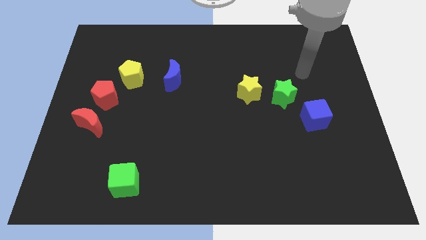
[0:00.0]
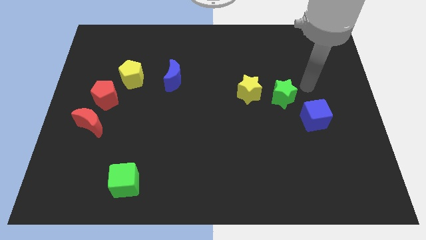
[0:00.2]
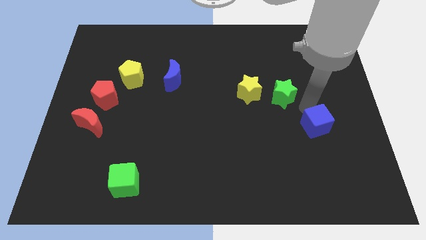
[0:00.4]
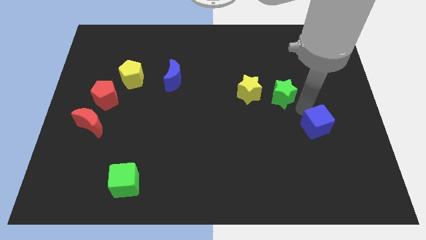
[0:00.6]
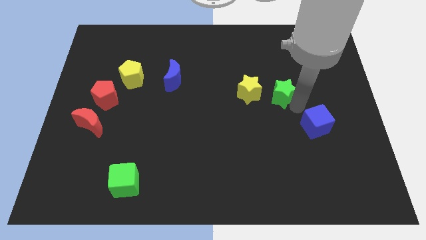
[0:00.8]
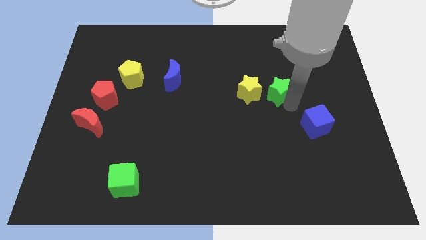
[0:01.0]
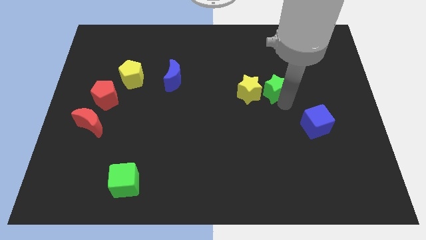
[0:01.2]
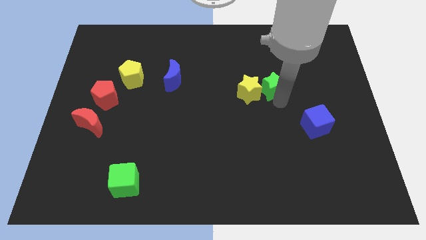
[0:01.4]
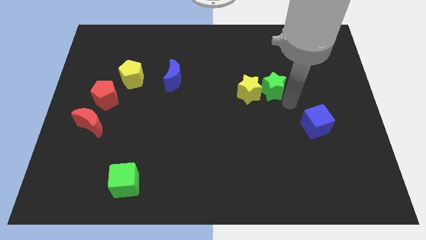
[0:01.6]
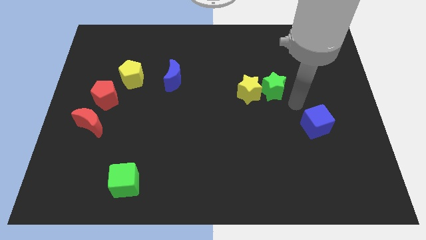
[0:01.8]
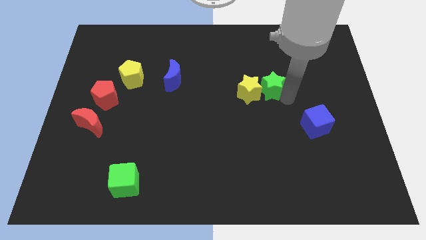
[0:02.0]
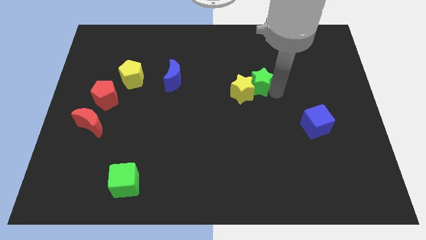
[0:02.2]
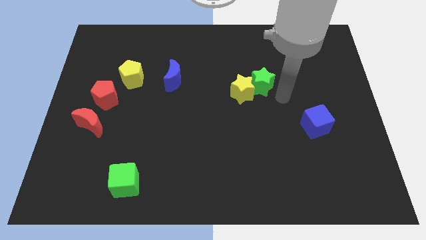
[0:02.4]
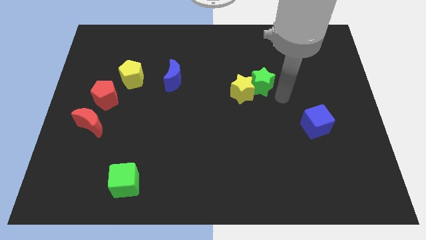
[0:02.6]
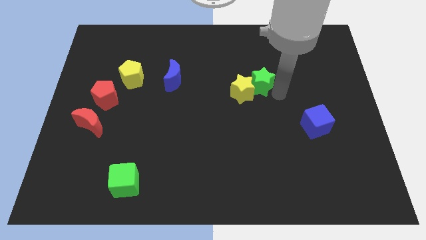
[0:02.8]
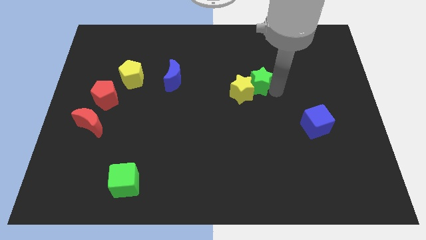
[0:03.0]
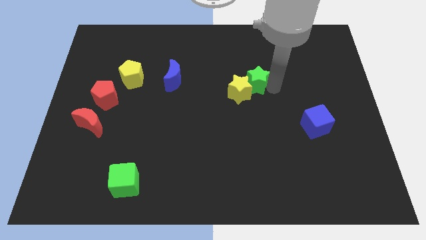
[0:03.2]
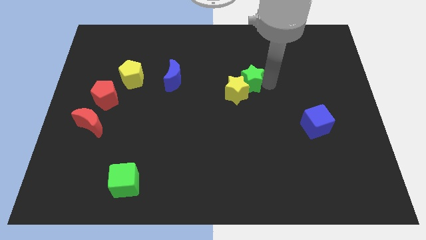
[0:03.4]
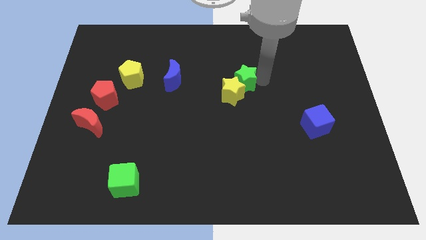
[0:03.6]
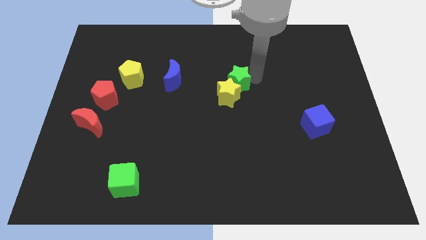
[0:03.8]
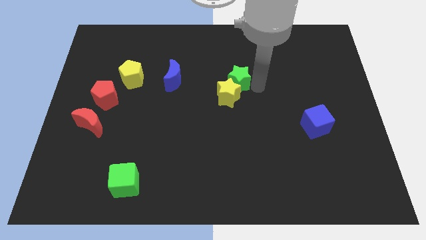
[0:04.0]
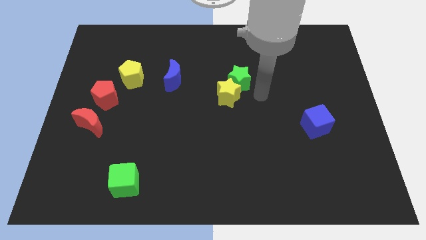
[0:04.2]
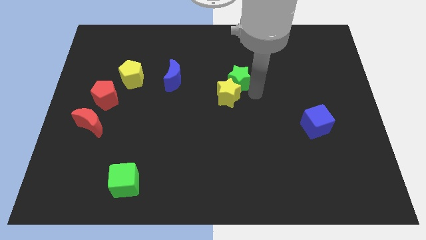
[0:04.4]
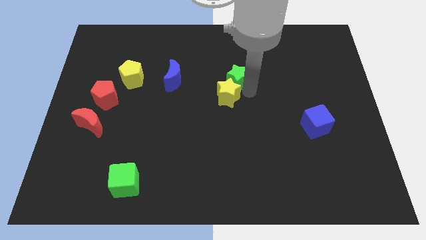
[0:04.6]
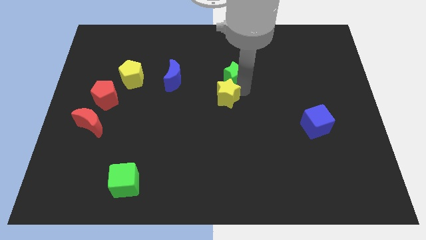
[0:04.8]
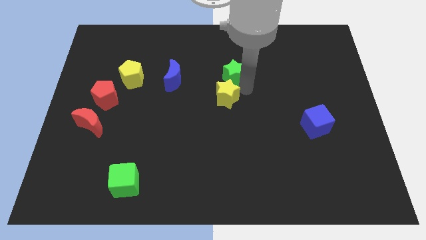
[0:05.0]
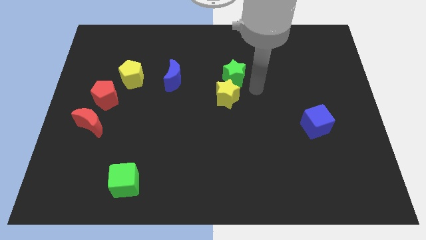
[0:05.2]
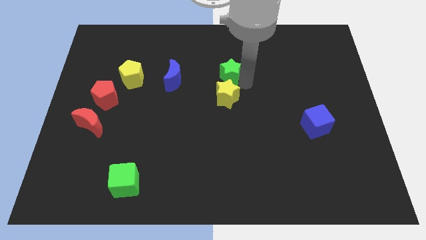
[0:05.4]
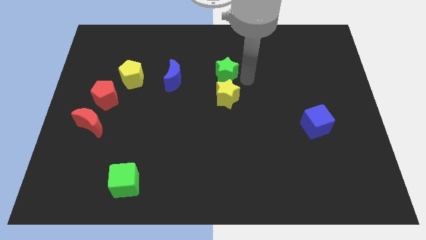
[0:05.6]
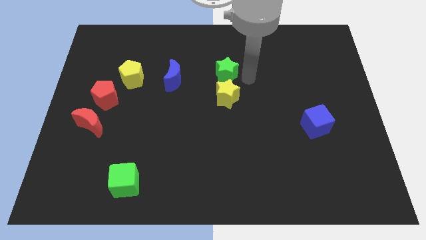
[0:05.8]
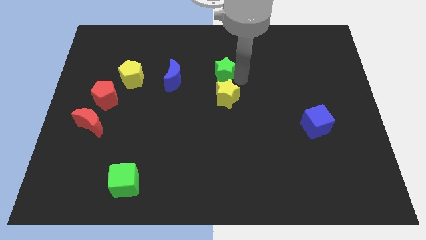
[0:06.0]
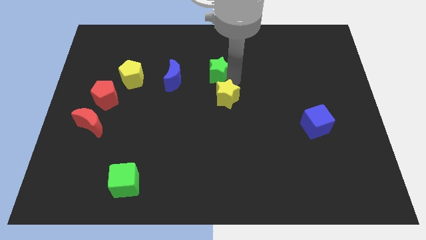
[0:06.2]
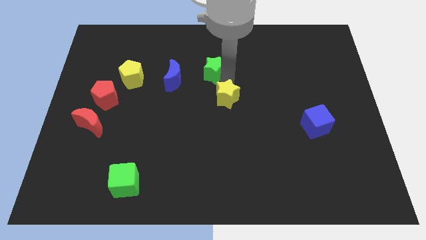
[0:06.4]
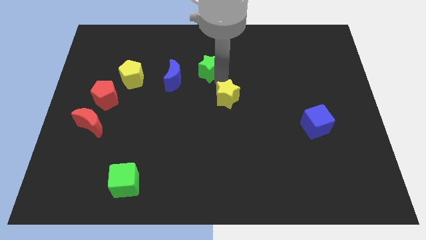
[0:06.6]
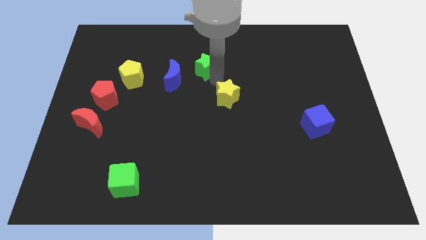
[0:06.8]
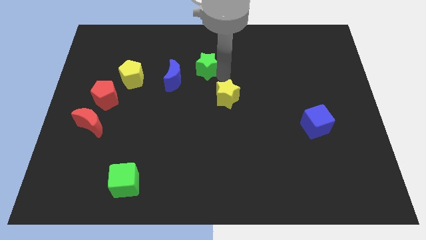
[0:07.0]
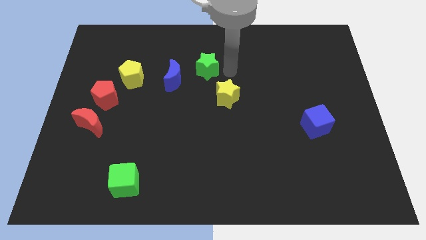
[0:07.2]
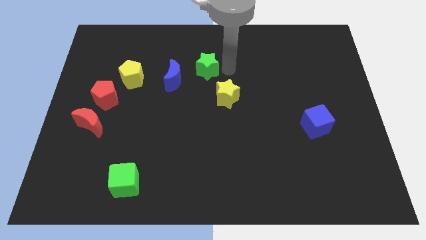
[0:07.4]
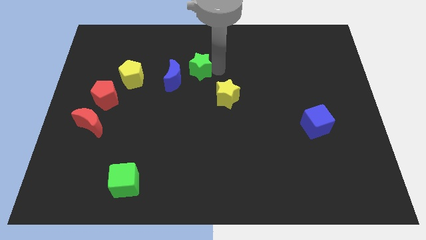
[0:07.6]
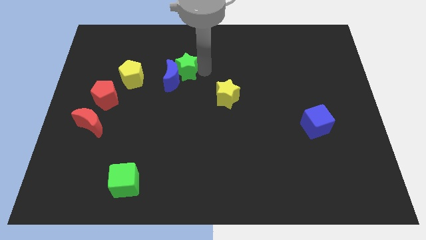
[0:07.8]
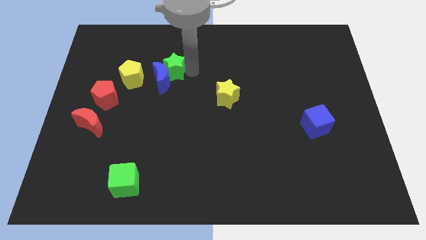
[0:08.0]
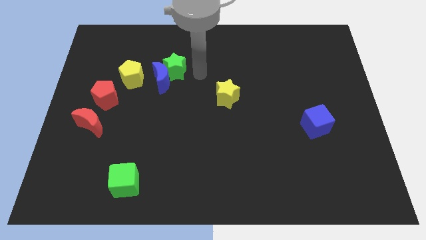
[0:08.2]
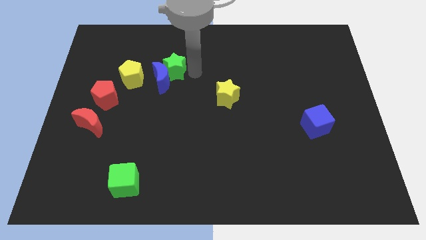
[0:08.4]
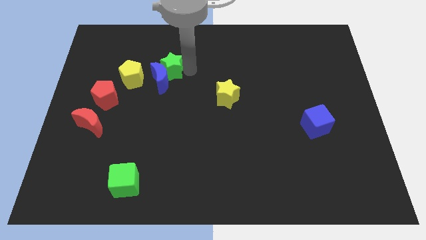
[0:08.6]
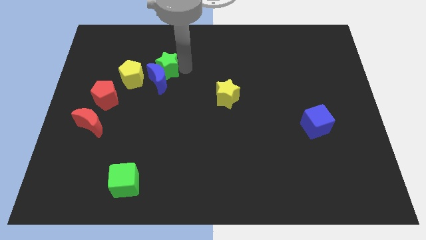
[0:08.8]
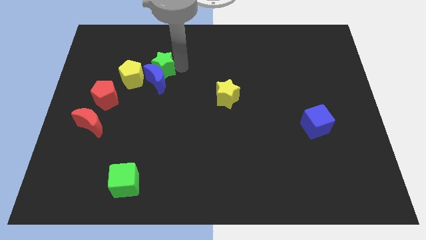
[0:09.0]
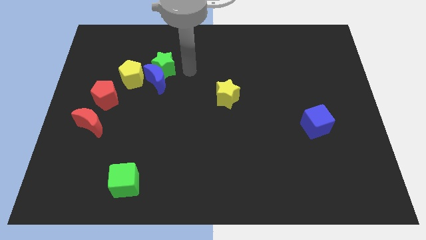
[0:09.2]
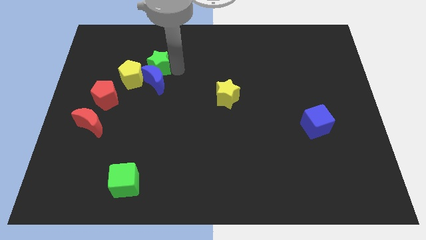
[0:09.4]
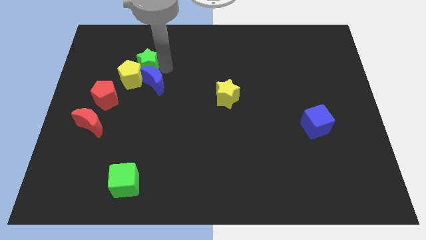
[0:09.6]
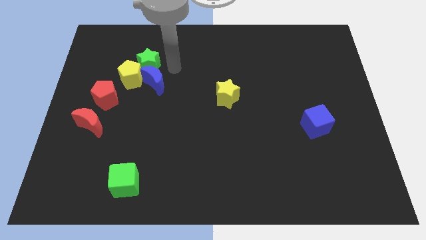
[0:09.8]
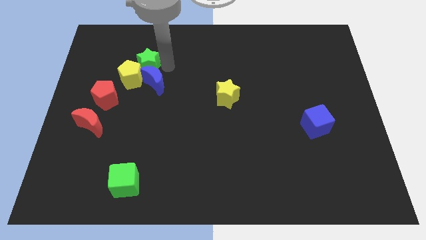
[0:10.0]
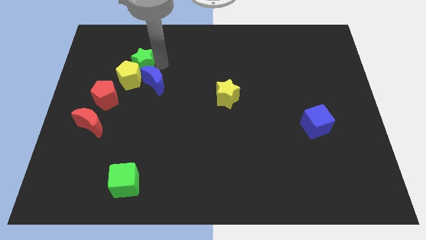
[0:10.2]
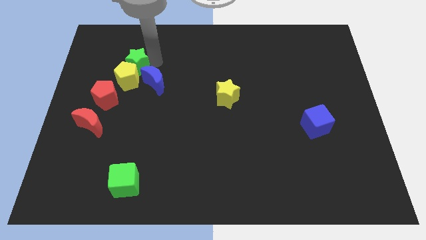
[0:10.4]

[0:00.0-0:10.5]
push the green star to the top left of the yellow pentagon

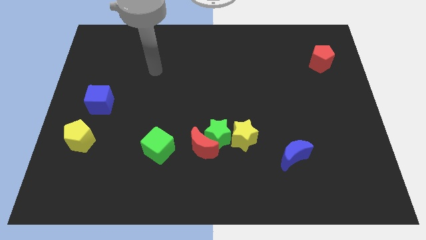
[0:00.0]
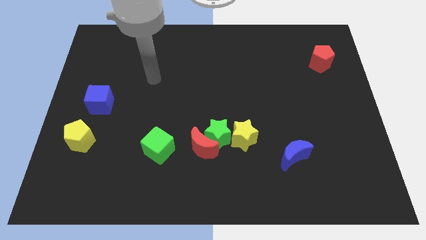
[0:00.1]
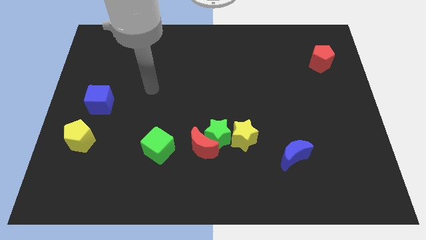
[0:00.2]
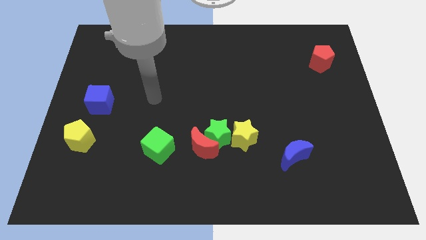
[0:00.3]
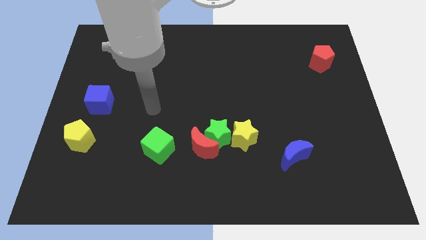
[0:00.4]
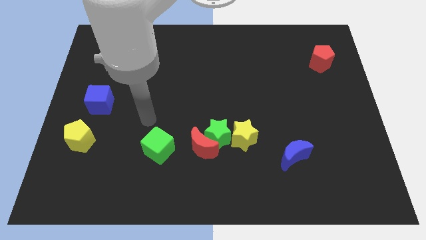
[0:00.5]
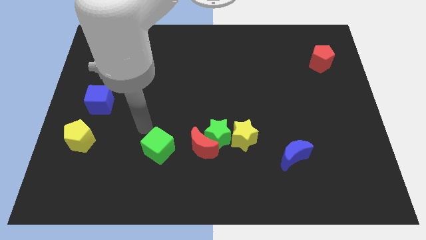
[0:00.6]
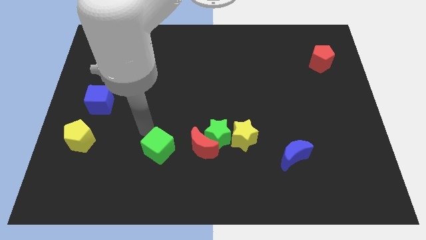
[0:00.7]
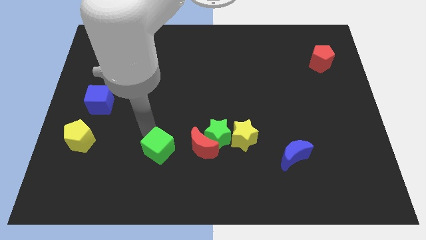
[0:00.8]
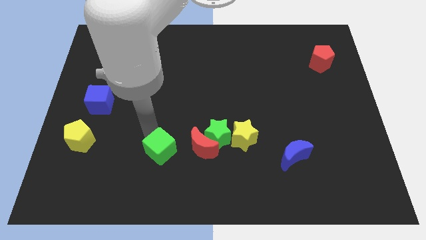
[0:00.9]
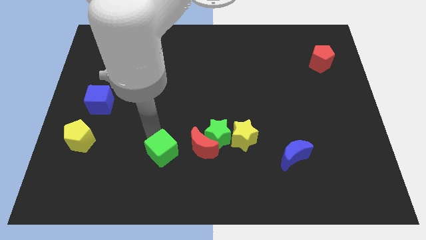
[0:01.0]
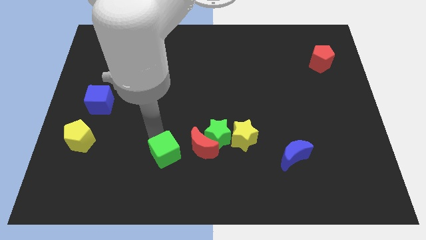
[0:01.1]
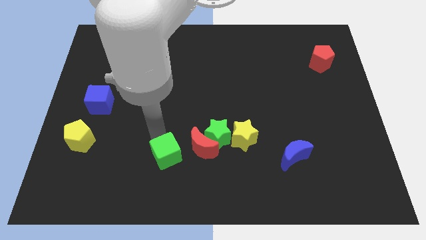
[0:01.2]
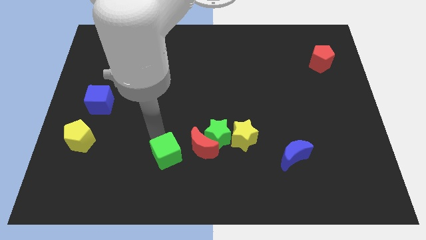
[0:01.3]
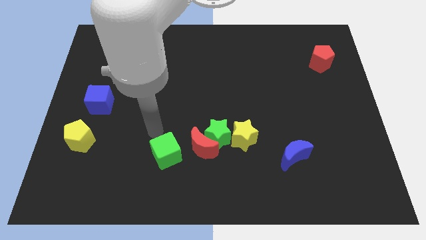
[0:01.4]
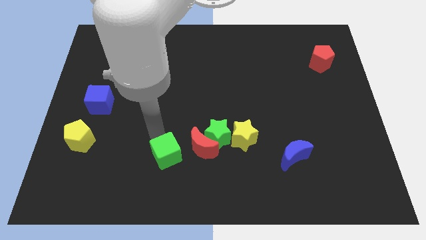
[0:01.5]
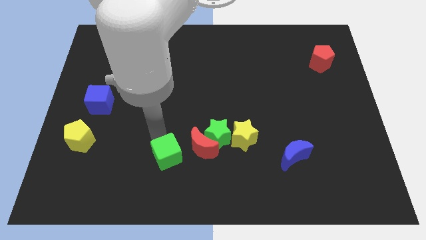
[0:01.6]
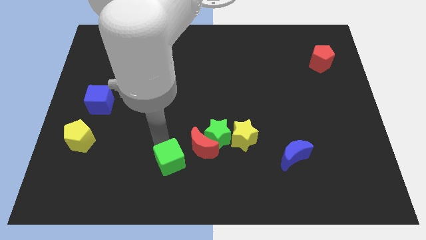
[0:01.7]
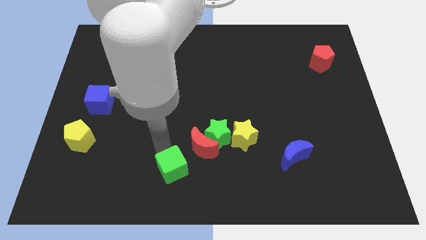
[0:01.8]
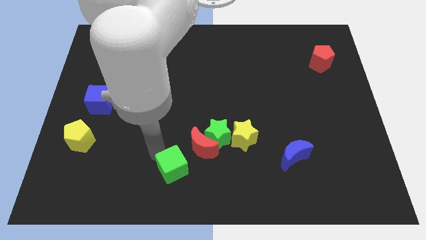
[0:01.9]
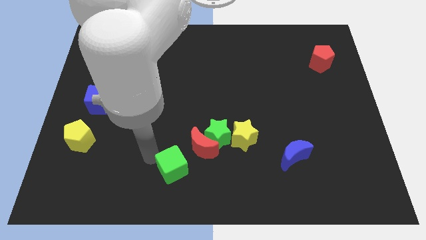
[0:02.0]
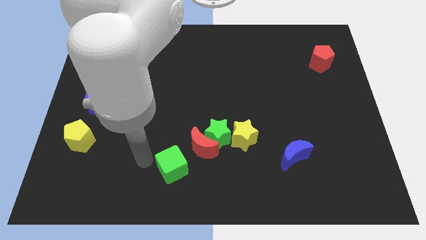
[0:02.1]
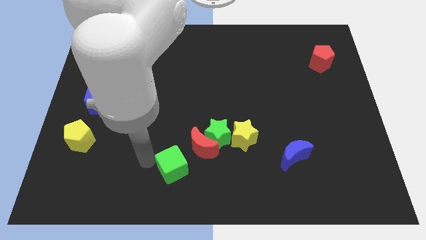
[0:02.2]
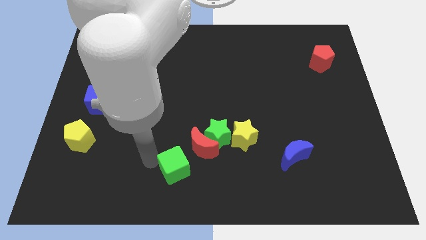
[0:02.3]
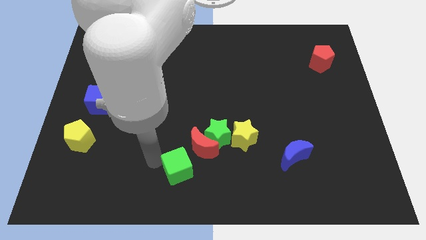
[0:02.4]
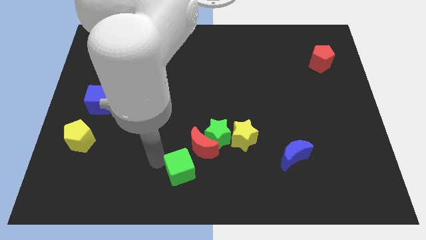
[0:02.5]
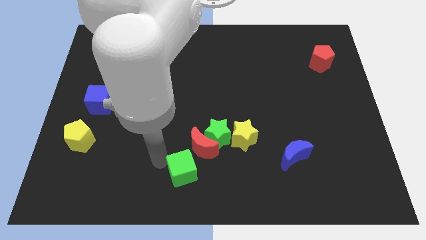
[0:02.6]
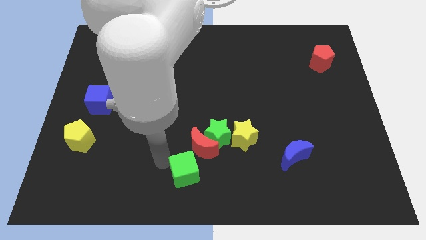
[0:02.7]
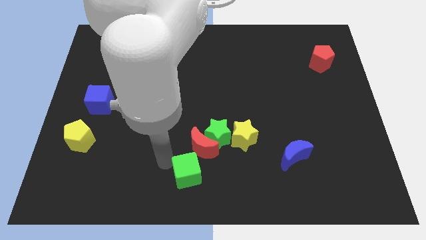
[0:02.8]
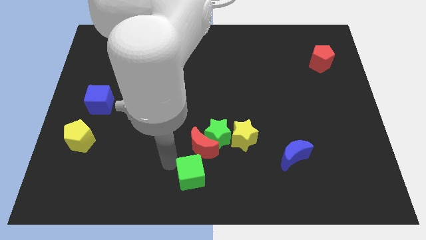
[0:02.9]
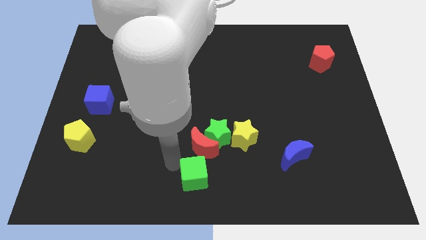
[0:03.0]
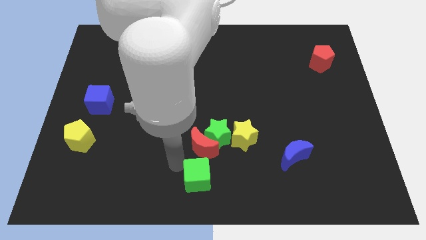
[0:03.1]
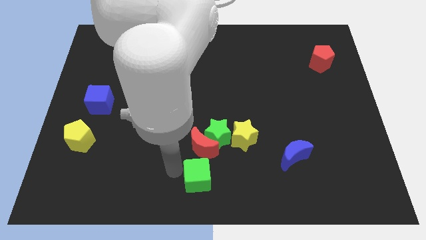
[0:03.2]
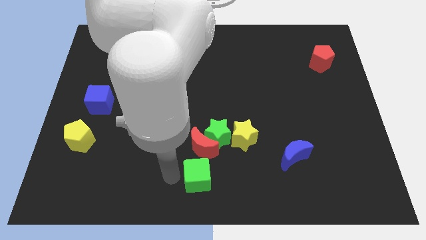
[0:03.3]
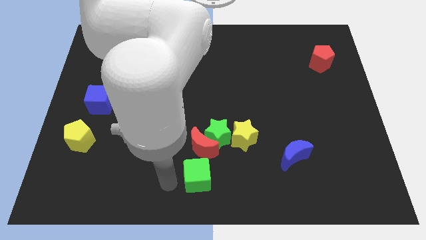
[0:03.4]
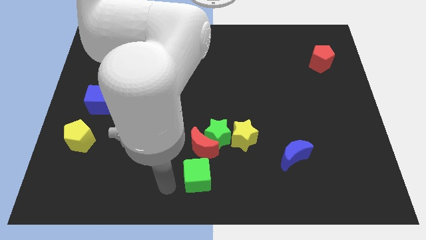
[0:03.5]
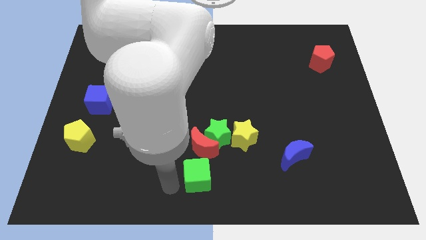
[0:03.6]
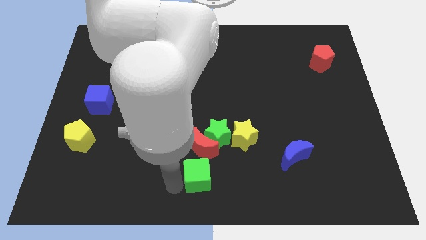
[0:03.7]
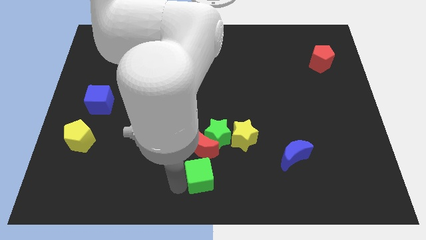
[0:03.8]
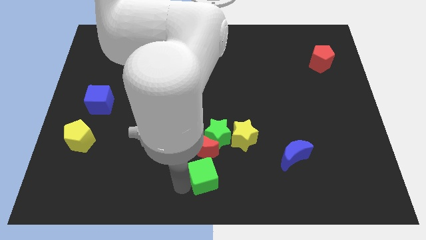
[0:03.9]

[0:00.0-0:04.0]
move the green cube diagonally down and to the right of the red moon
